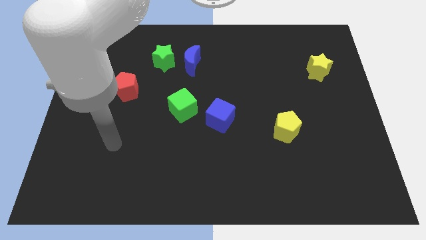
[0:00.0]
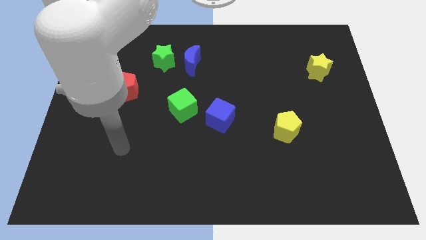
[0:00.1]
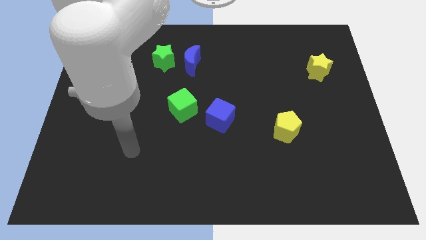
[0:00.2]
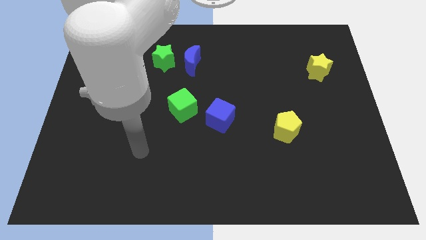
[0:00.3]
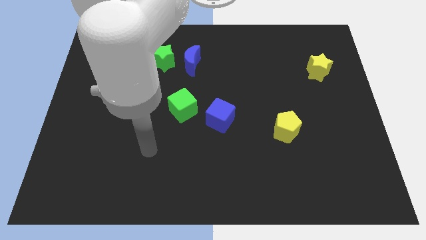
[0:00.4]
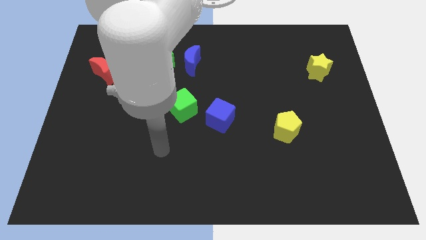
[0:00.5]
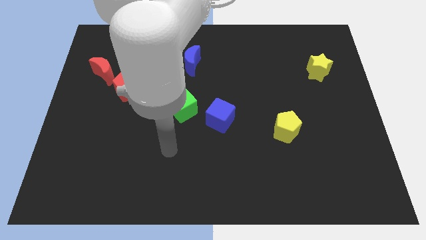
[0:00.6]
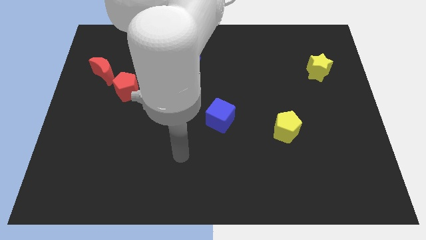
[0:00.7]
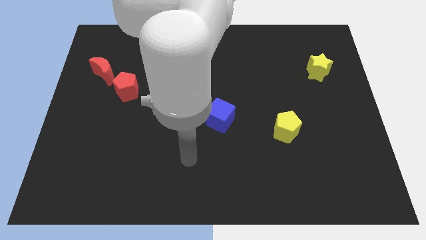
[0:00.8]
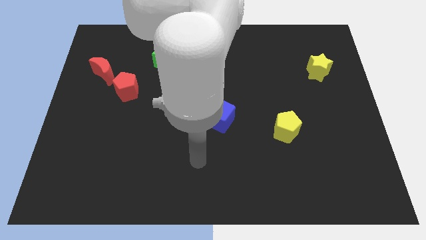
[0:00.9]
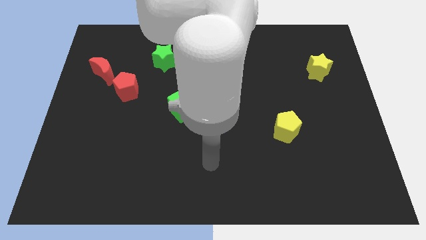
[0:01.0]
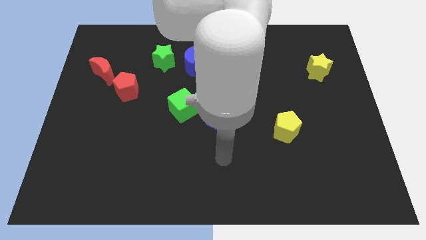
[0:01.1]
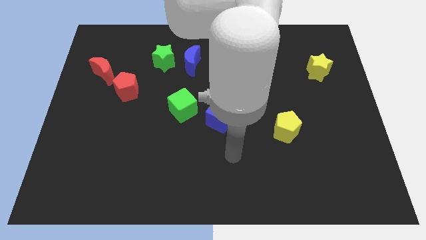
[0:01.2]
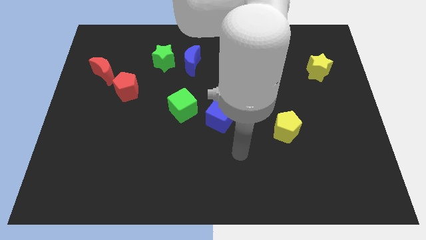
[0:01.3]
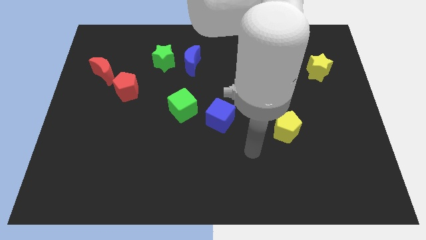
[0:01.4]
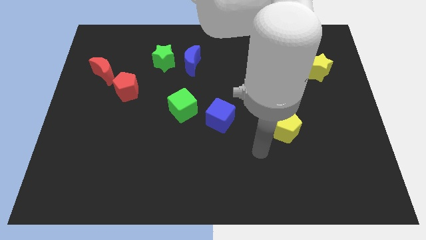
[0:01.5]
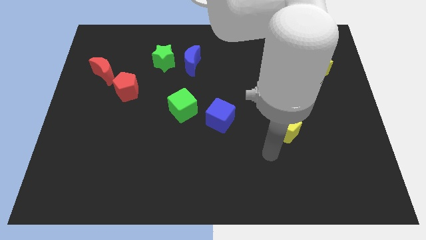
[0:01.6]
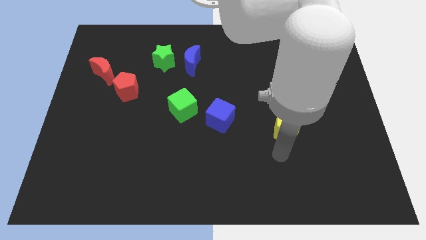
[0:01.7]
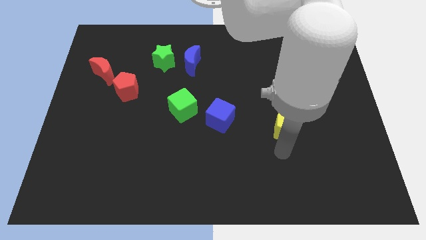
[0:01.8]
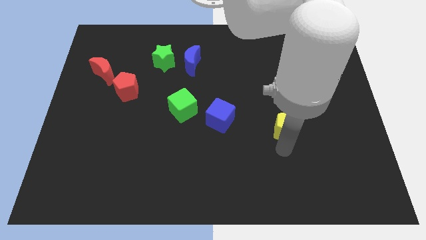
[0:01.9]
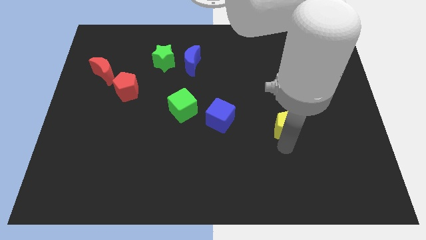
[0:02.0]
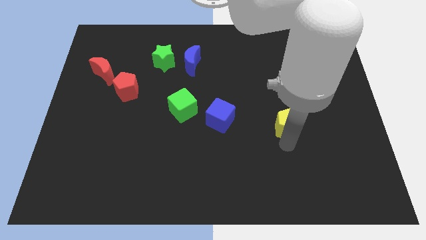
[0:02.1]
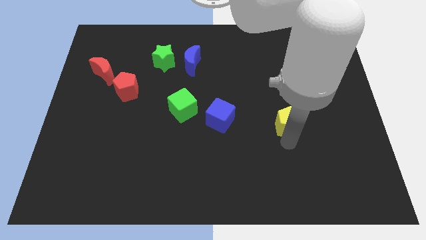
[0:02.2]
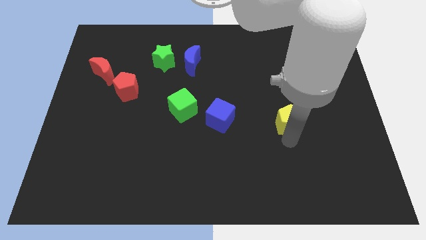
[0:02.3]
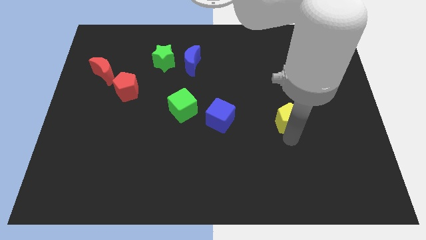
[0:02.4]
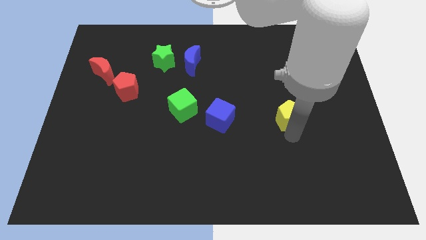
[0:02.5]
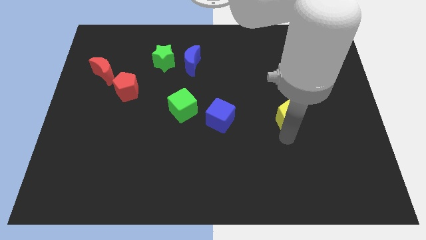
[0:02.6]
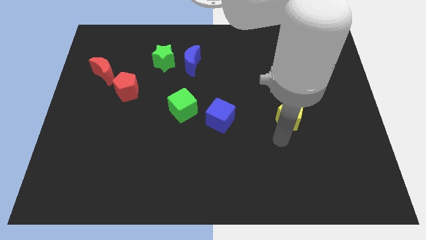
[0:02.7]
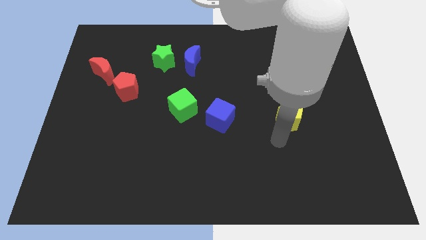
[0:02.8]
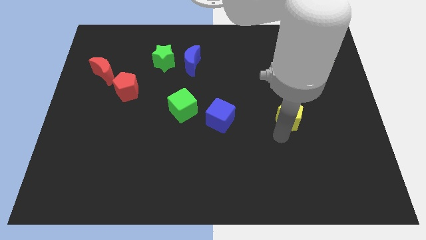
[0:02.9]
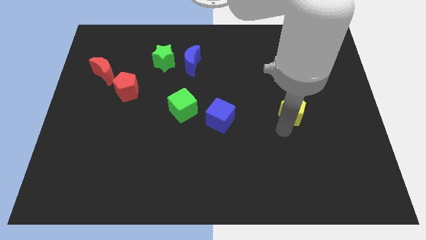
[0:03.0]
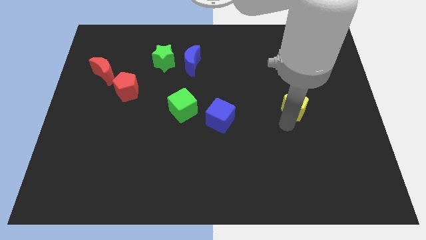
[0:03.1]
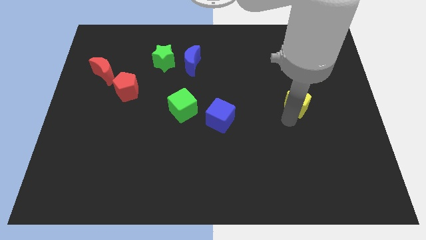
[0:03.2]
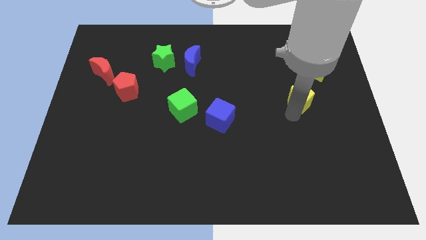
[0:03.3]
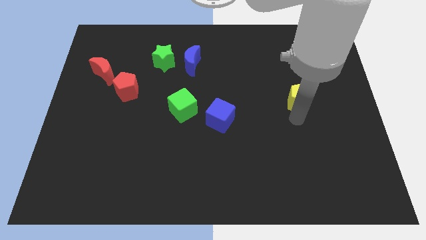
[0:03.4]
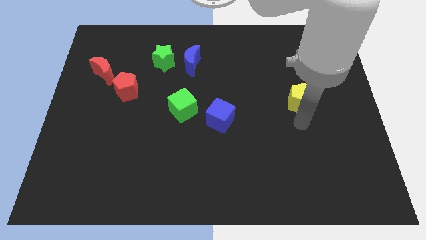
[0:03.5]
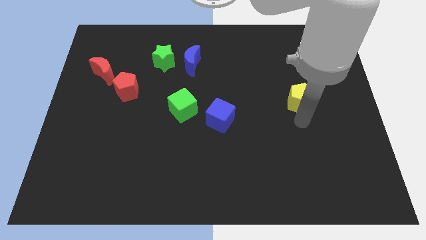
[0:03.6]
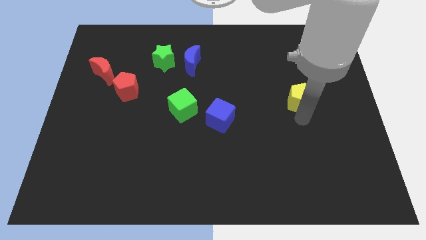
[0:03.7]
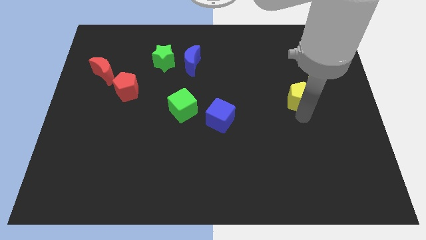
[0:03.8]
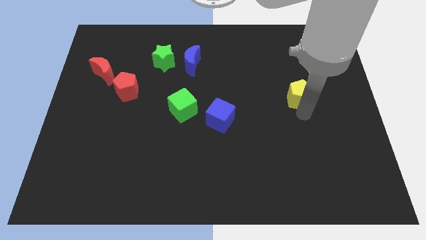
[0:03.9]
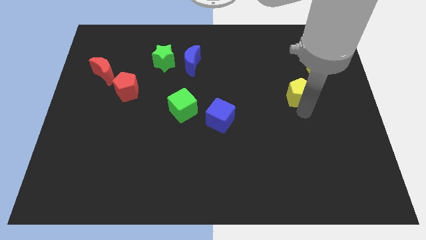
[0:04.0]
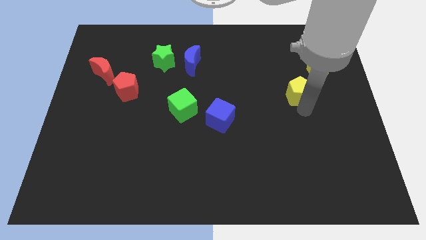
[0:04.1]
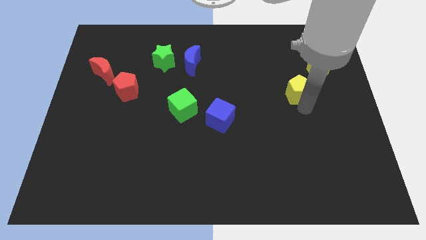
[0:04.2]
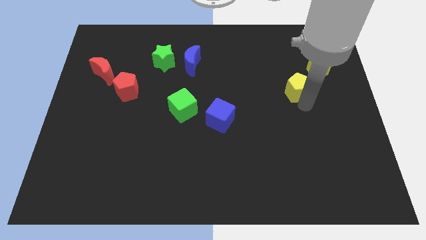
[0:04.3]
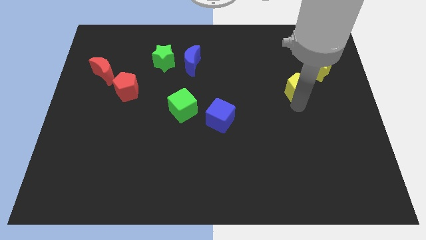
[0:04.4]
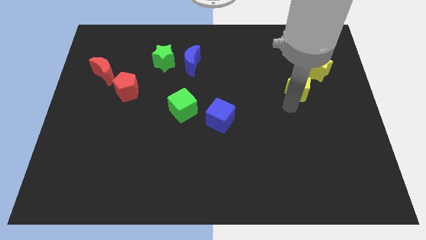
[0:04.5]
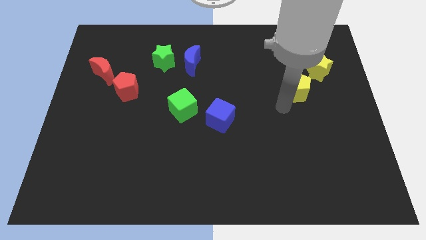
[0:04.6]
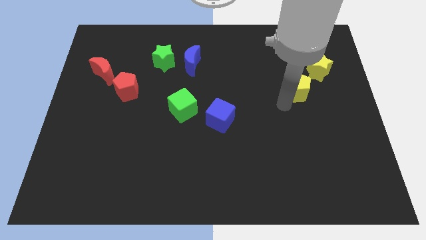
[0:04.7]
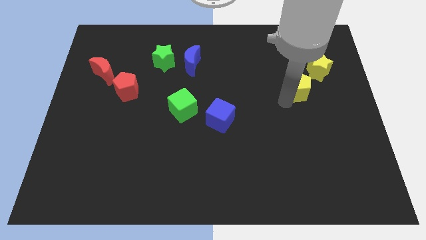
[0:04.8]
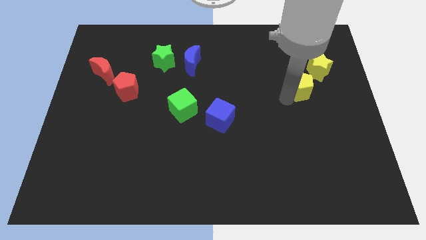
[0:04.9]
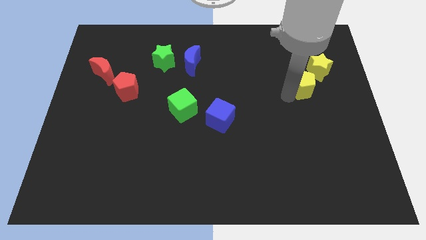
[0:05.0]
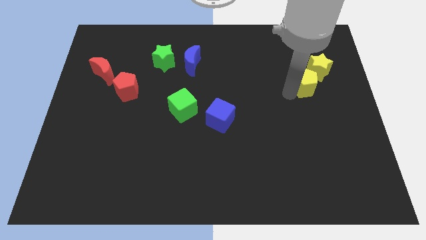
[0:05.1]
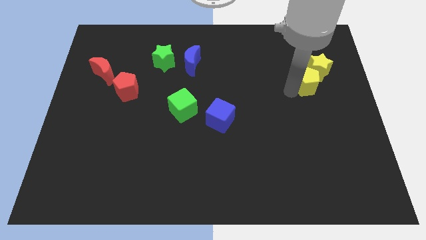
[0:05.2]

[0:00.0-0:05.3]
push the yellow pentagon next to the yellow star
